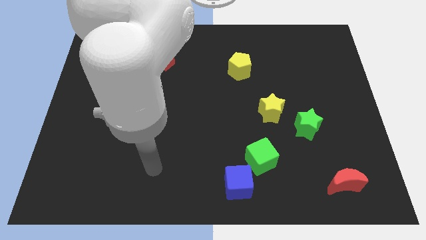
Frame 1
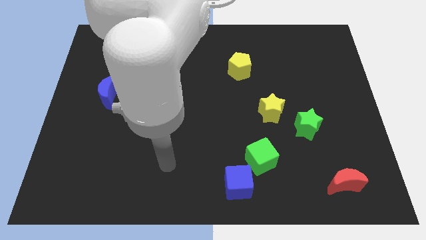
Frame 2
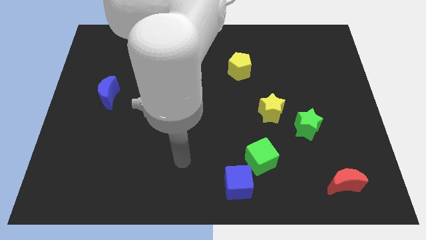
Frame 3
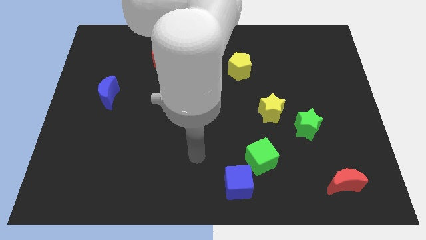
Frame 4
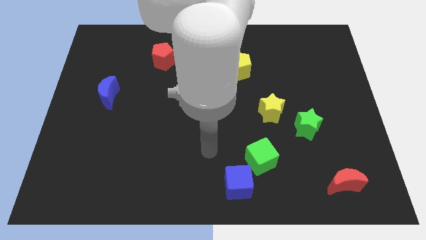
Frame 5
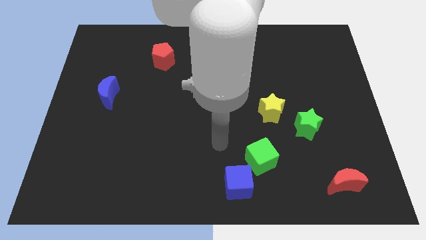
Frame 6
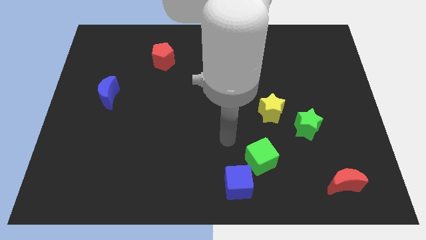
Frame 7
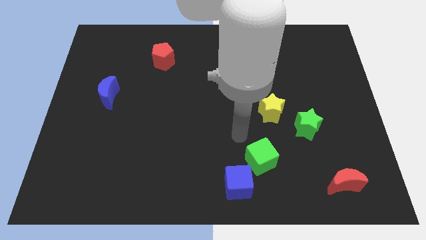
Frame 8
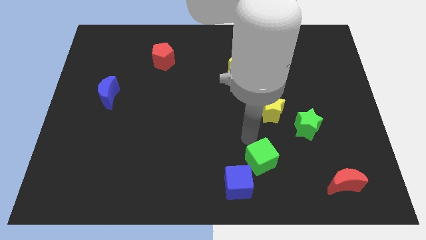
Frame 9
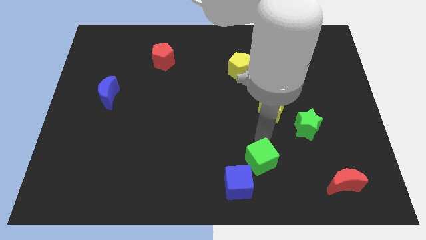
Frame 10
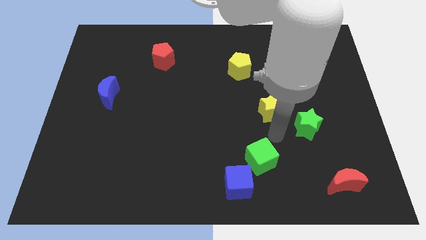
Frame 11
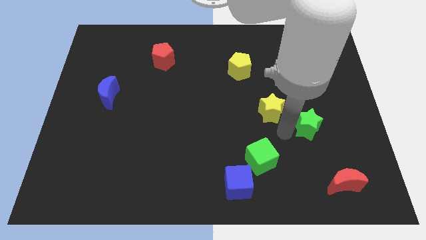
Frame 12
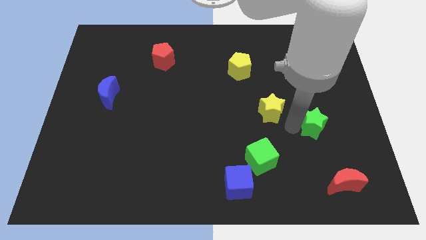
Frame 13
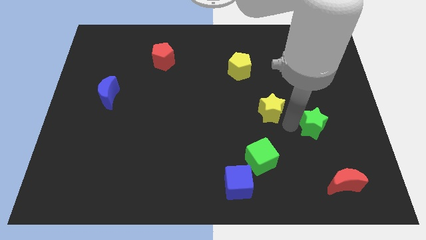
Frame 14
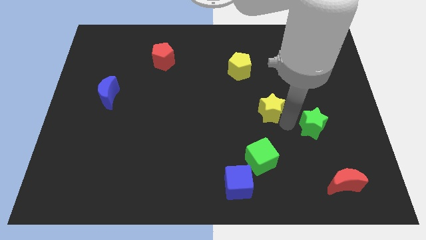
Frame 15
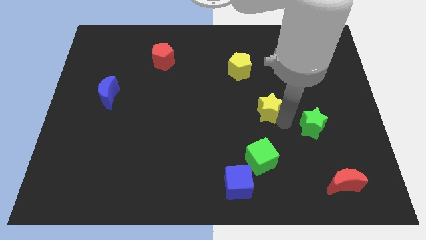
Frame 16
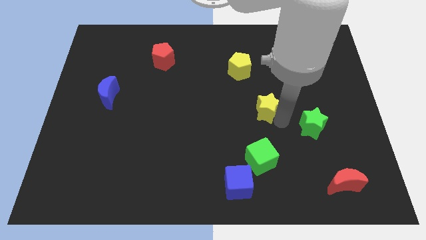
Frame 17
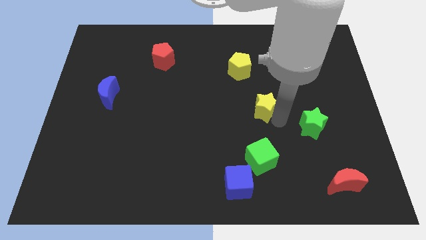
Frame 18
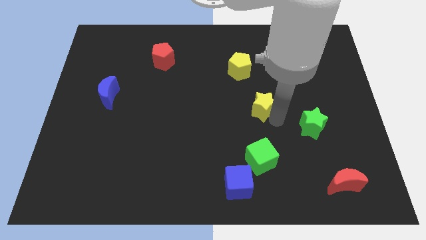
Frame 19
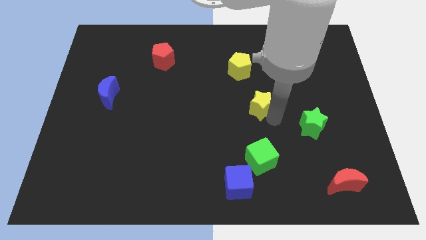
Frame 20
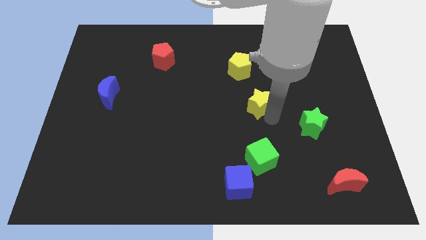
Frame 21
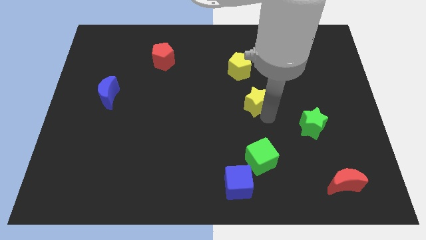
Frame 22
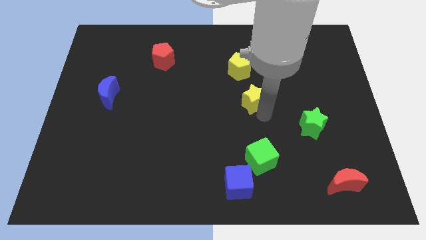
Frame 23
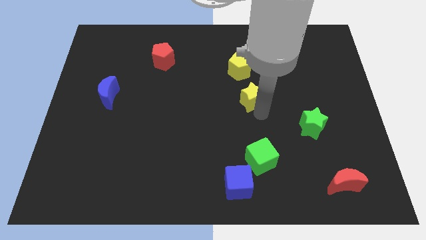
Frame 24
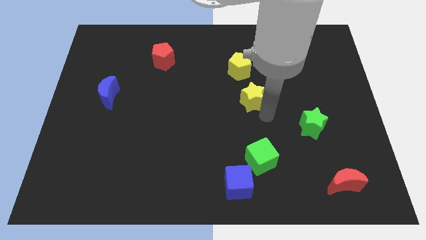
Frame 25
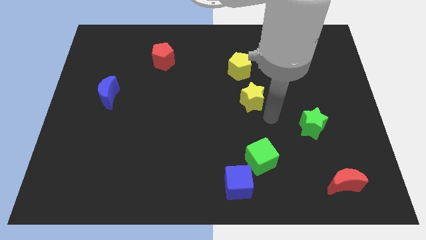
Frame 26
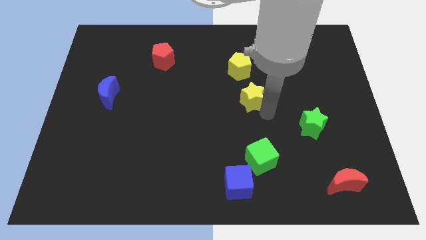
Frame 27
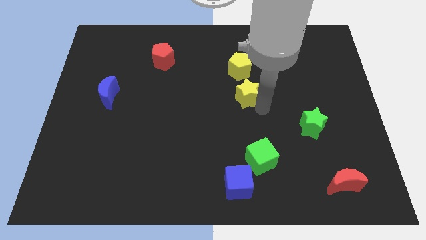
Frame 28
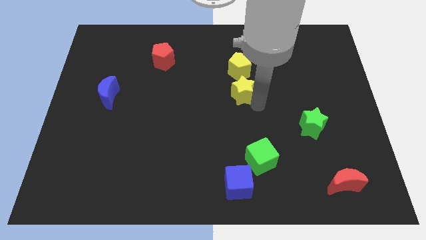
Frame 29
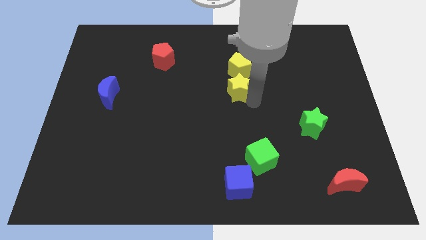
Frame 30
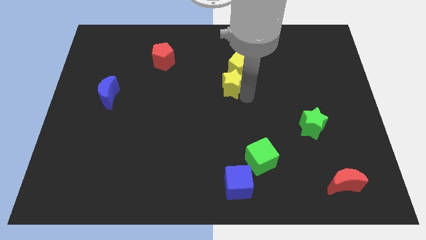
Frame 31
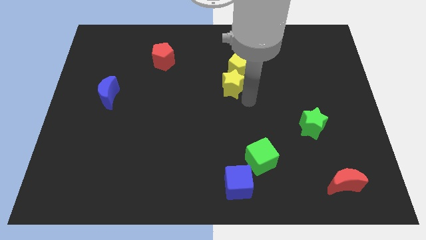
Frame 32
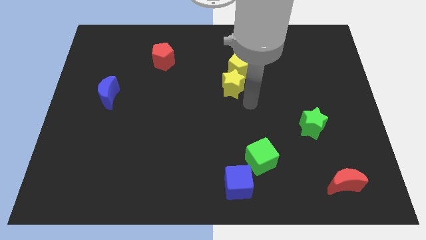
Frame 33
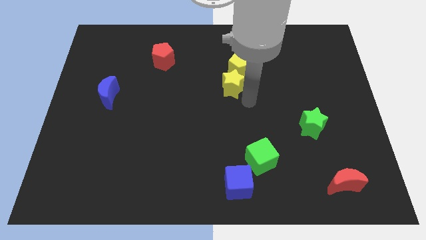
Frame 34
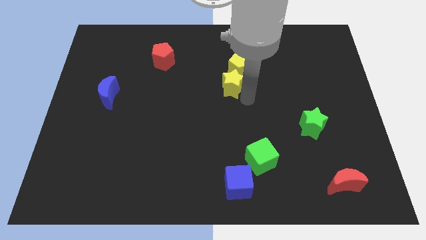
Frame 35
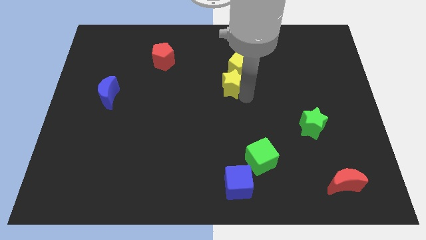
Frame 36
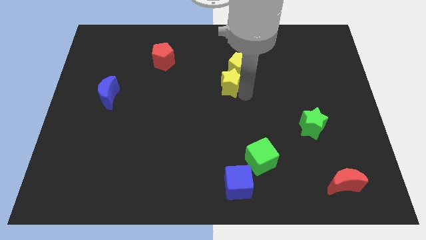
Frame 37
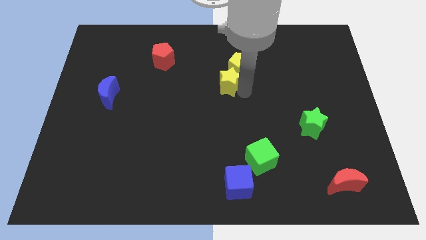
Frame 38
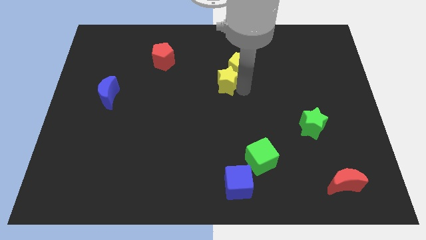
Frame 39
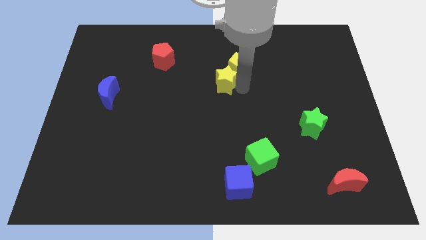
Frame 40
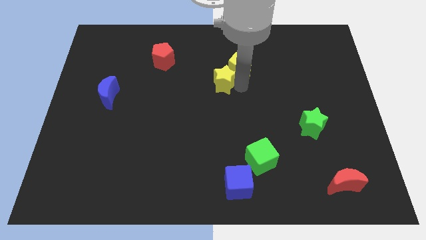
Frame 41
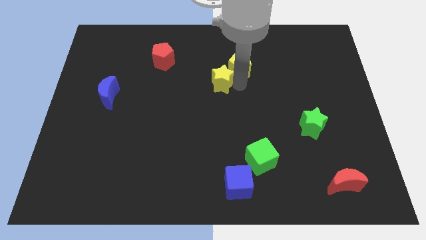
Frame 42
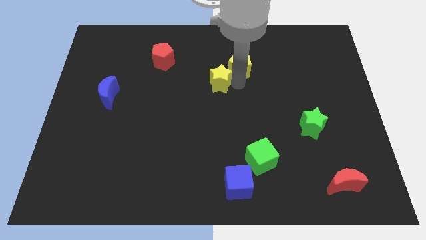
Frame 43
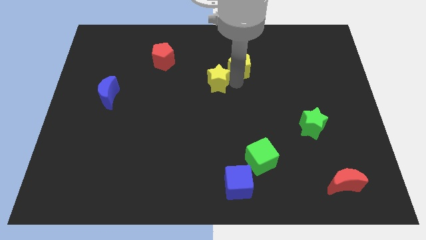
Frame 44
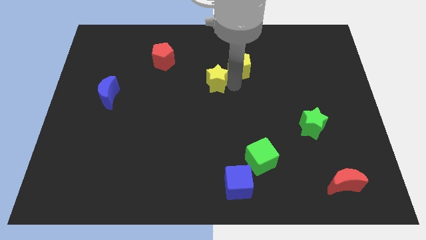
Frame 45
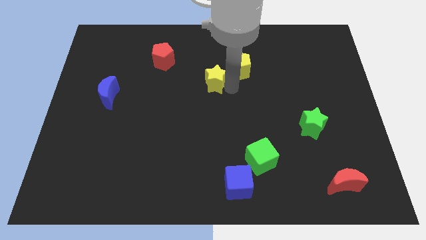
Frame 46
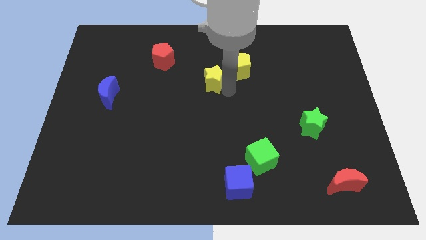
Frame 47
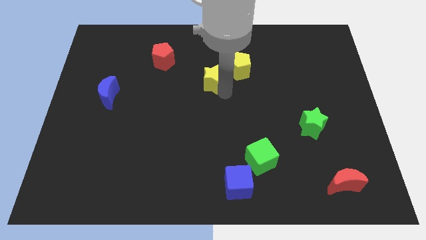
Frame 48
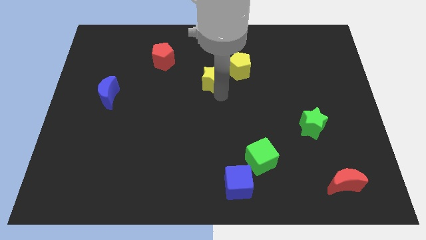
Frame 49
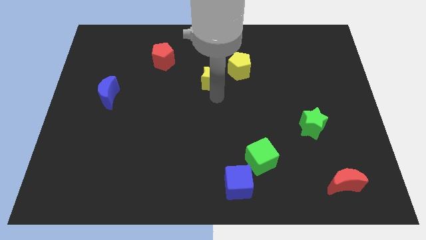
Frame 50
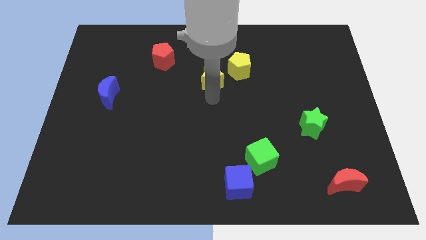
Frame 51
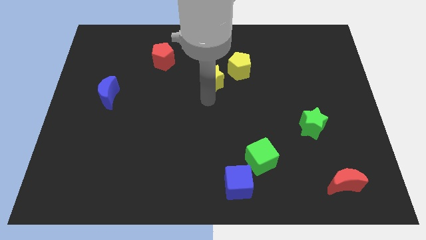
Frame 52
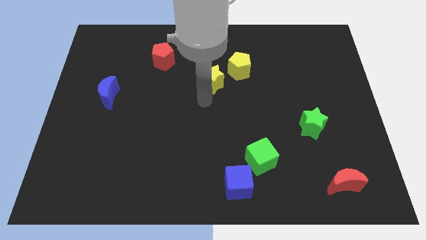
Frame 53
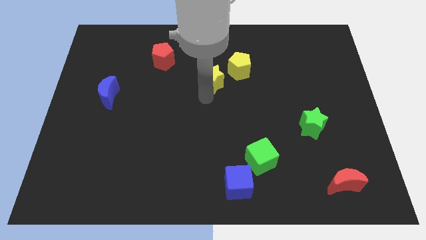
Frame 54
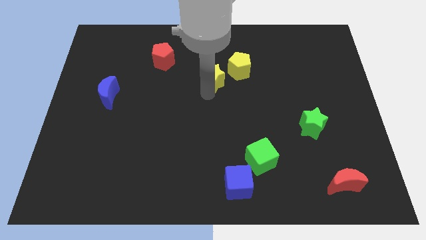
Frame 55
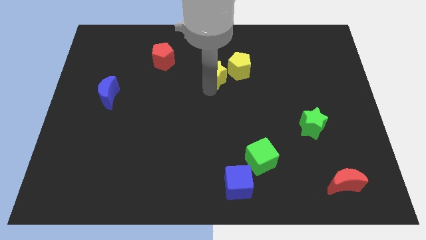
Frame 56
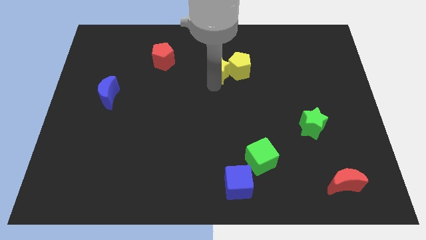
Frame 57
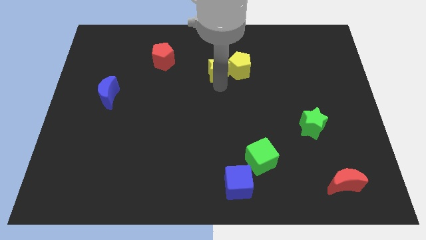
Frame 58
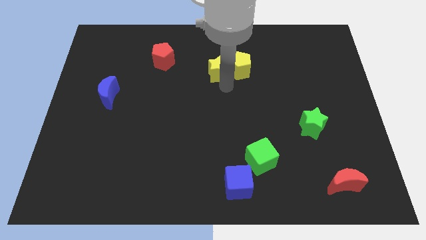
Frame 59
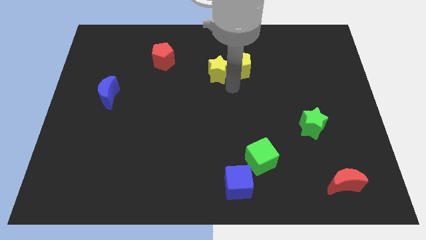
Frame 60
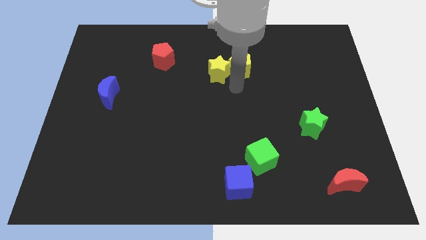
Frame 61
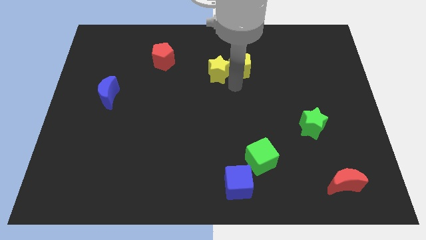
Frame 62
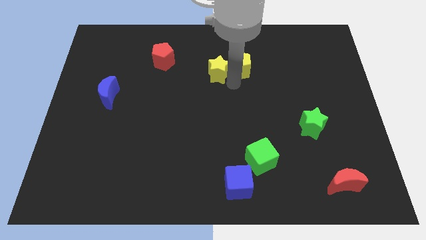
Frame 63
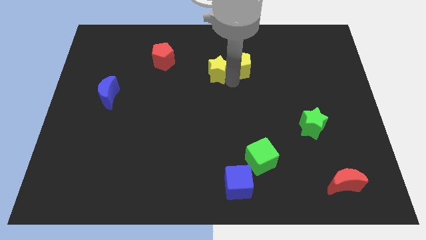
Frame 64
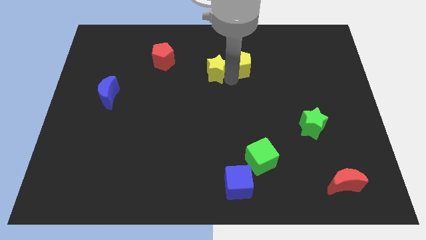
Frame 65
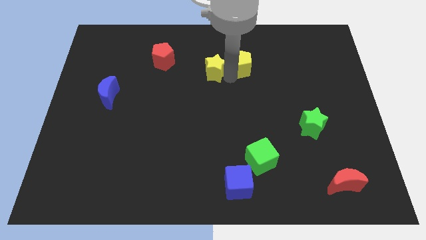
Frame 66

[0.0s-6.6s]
slide the yellow star to the right of the red pentagon

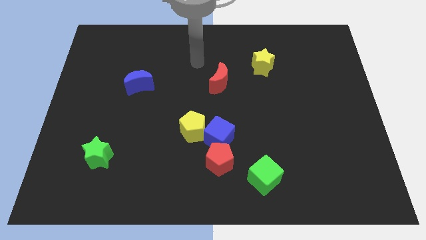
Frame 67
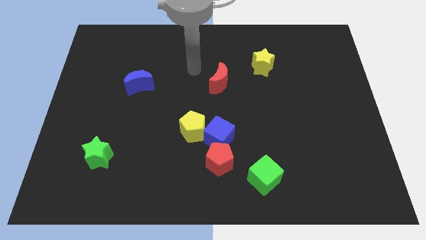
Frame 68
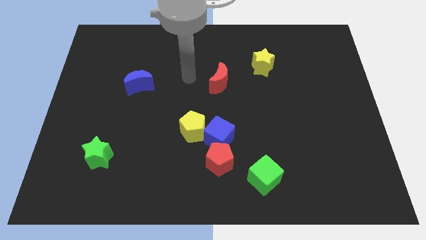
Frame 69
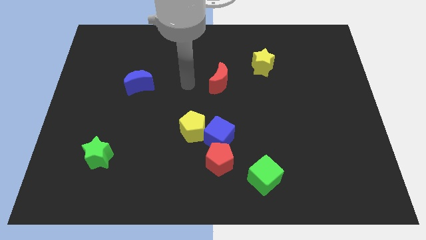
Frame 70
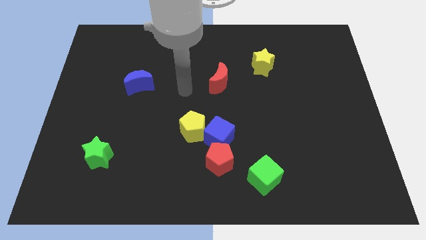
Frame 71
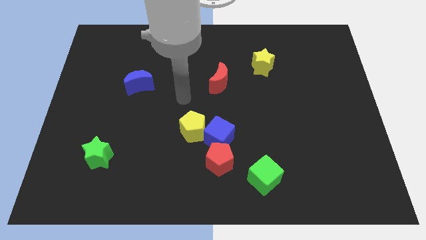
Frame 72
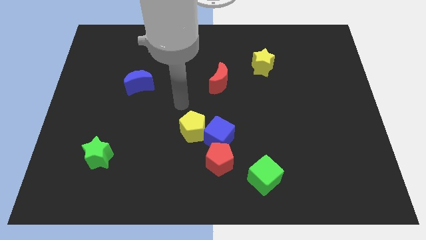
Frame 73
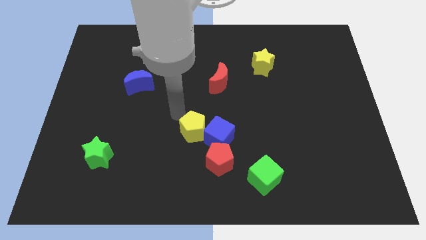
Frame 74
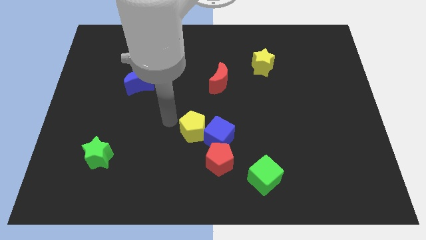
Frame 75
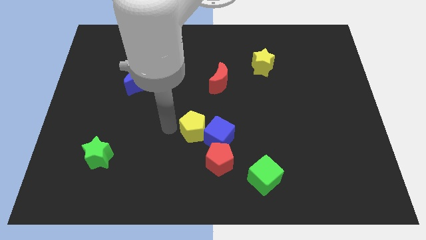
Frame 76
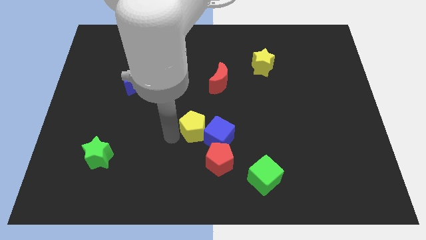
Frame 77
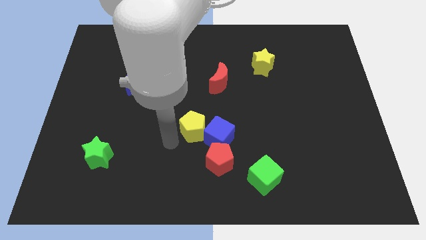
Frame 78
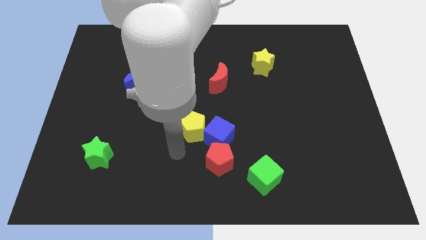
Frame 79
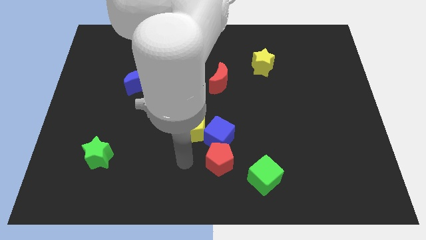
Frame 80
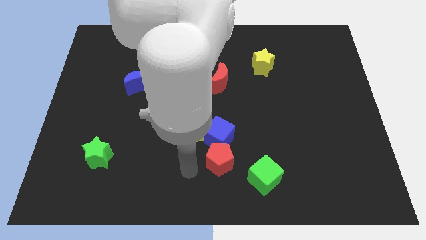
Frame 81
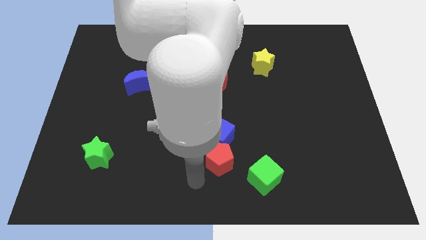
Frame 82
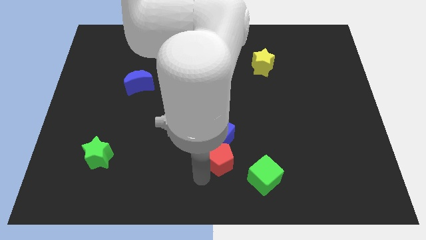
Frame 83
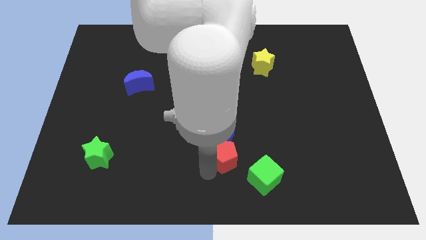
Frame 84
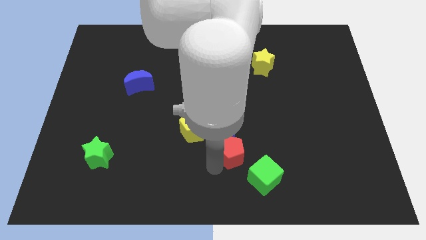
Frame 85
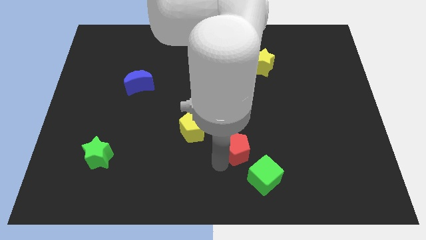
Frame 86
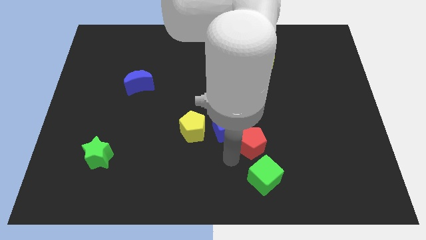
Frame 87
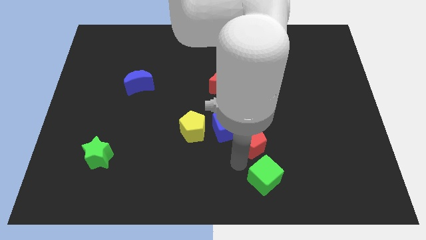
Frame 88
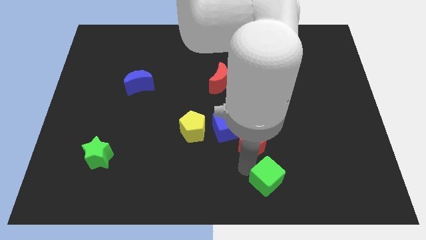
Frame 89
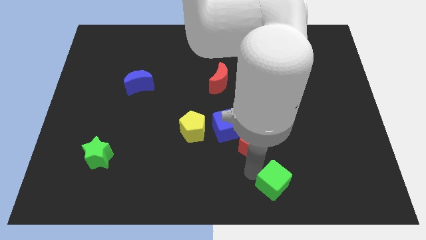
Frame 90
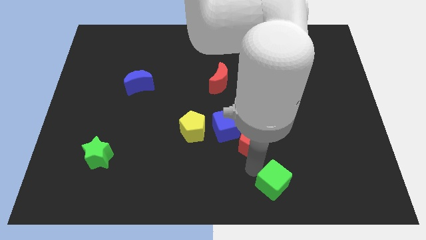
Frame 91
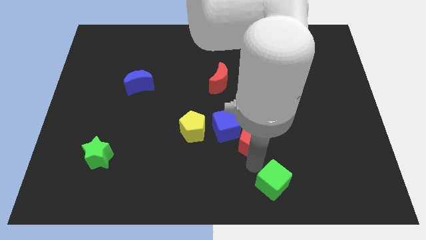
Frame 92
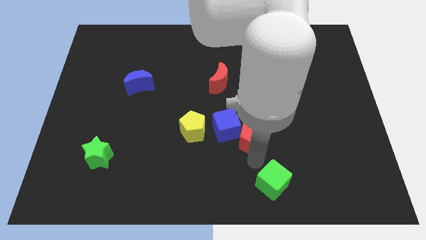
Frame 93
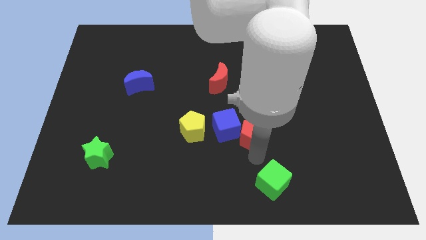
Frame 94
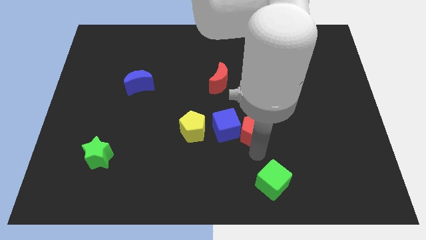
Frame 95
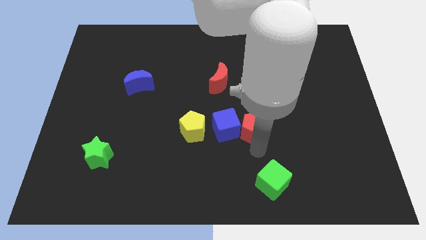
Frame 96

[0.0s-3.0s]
push the red pentagon to the top right of the blue cube
